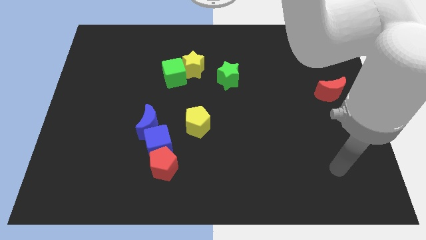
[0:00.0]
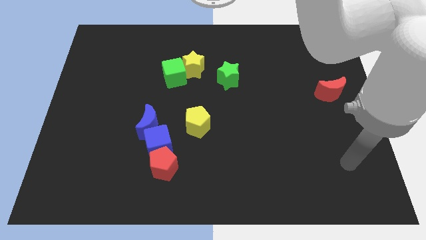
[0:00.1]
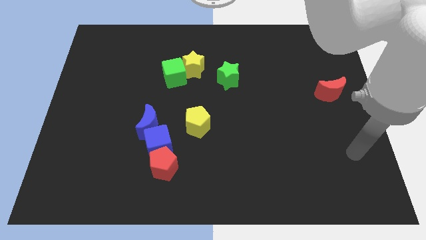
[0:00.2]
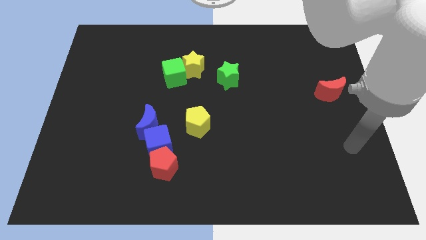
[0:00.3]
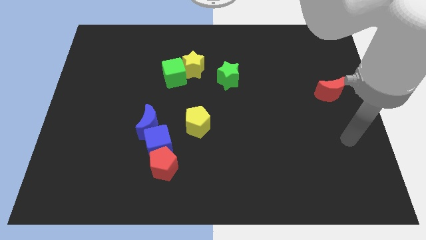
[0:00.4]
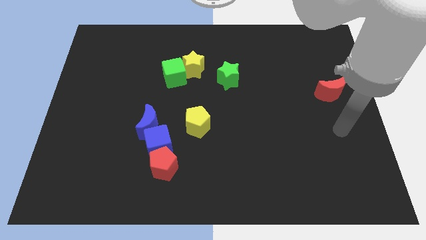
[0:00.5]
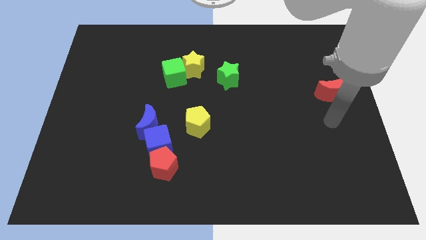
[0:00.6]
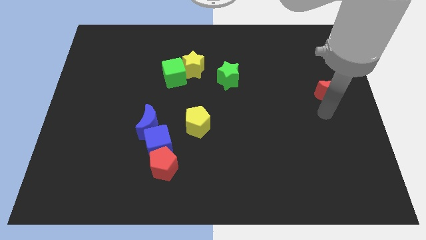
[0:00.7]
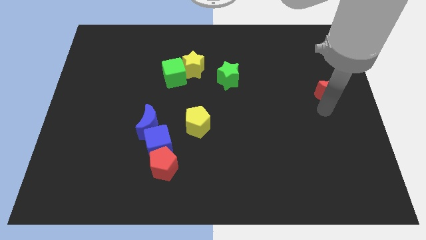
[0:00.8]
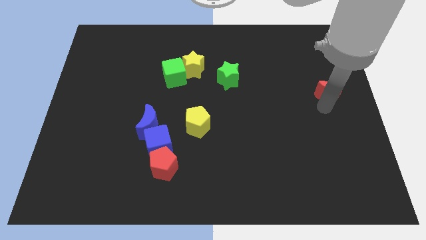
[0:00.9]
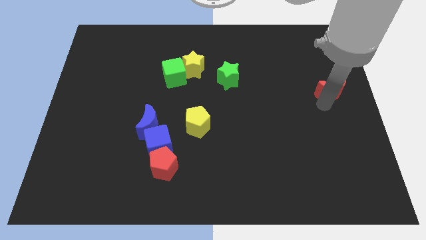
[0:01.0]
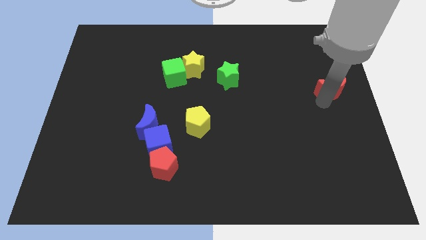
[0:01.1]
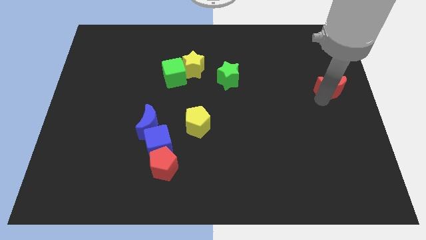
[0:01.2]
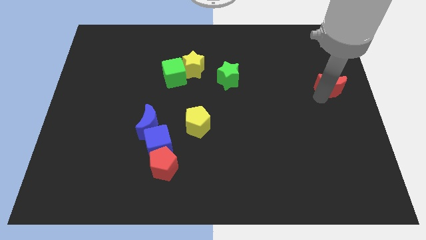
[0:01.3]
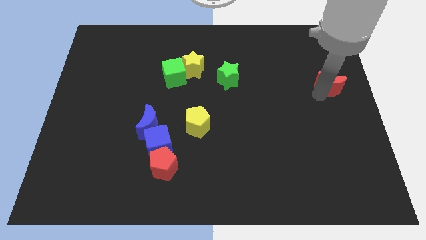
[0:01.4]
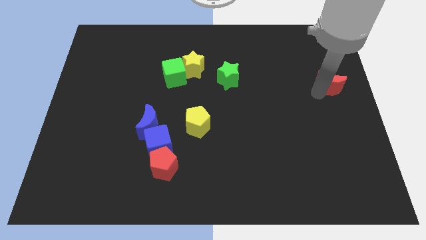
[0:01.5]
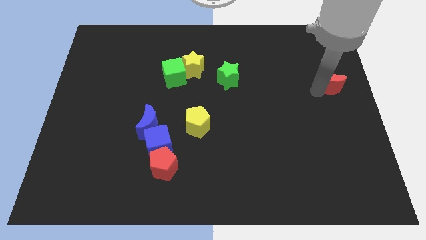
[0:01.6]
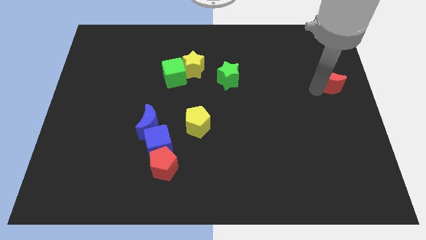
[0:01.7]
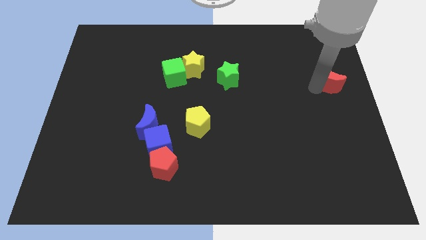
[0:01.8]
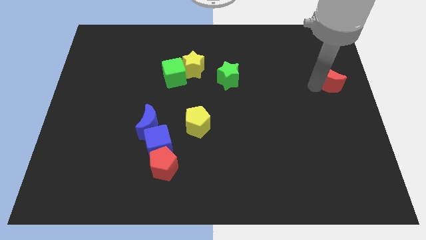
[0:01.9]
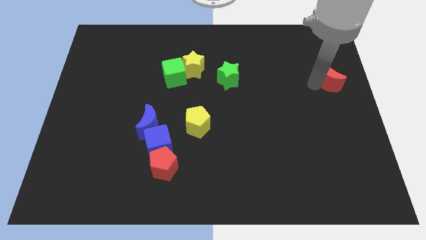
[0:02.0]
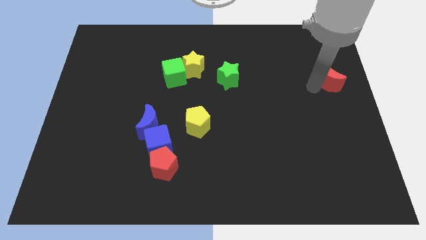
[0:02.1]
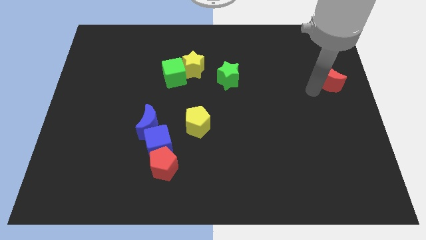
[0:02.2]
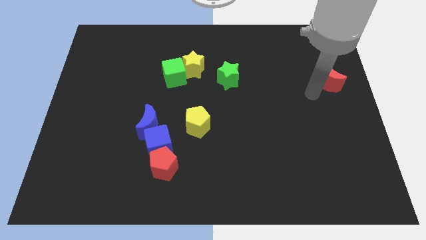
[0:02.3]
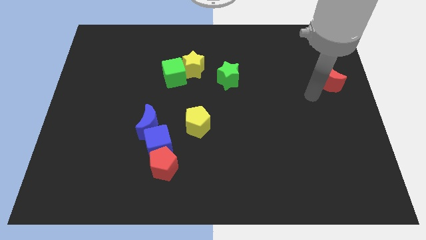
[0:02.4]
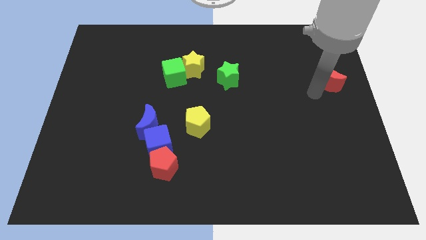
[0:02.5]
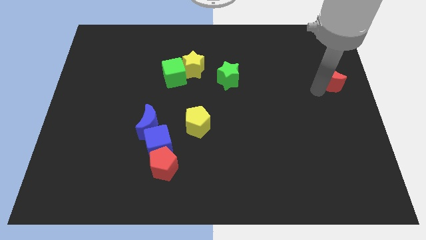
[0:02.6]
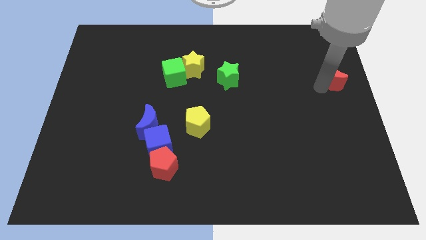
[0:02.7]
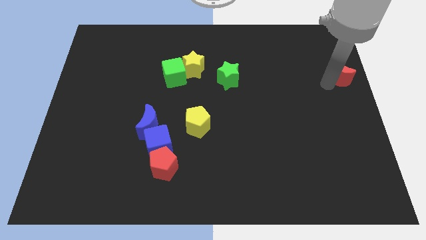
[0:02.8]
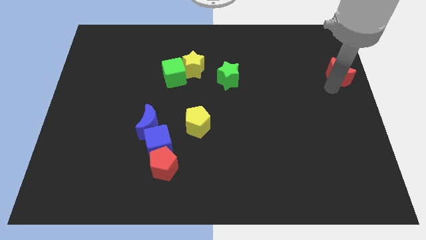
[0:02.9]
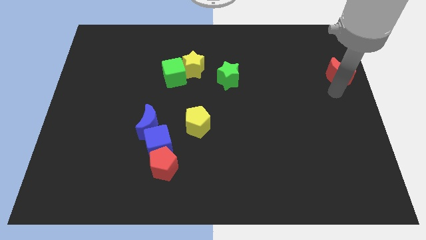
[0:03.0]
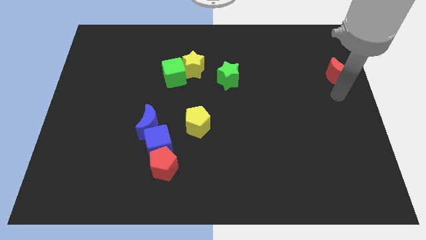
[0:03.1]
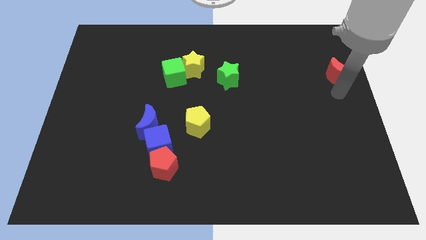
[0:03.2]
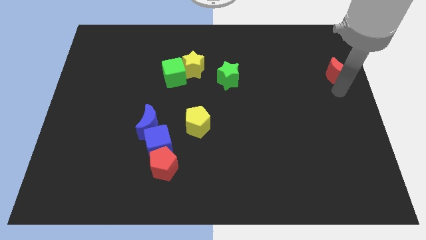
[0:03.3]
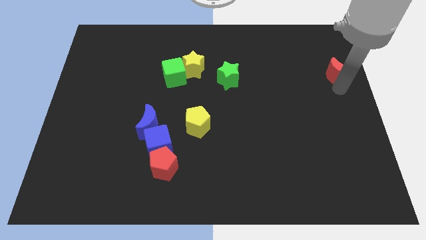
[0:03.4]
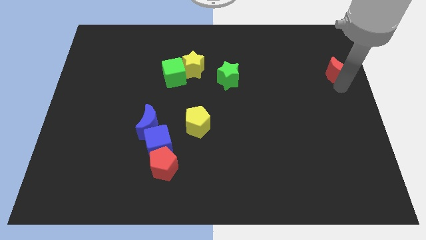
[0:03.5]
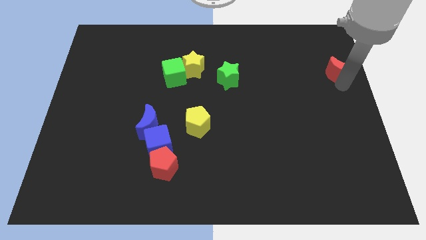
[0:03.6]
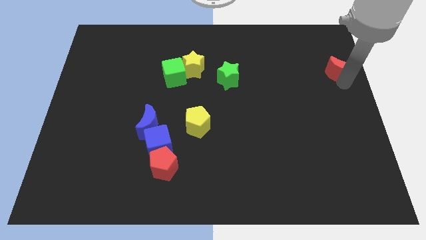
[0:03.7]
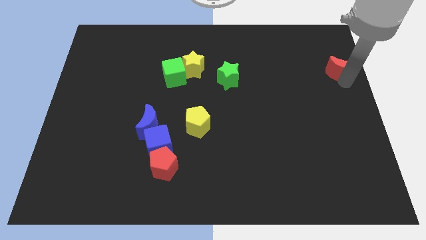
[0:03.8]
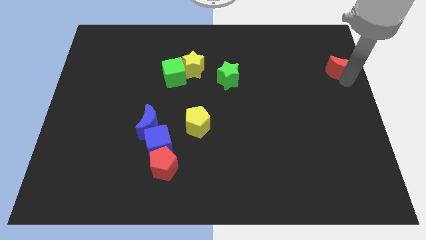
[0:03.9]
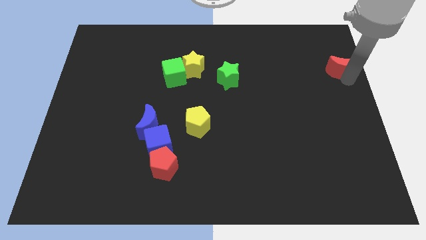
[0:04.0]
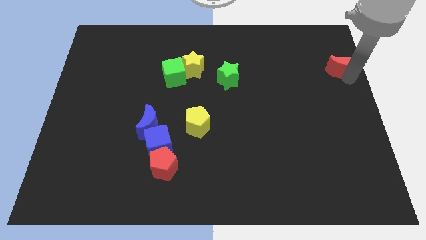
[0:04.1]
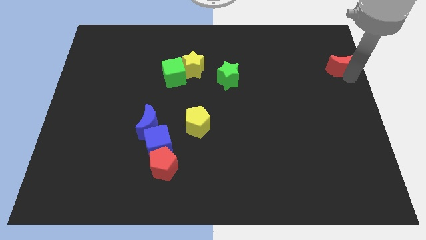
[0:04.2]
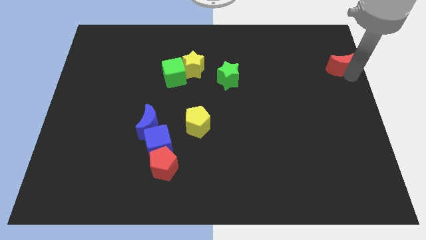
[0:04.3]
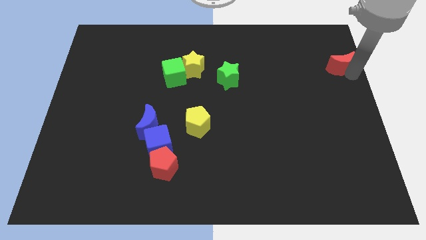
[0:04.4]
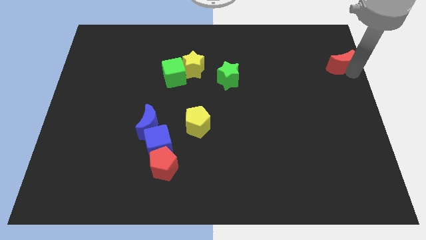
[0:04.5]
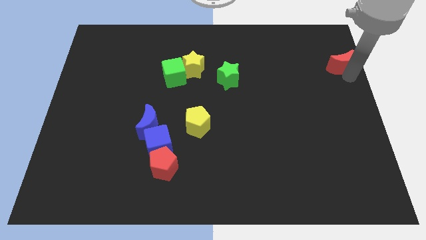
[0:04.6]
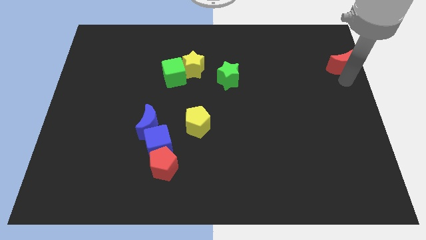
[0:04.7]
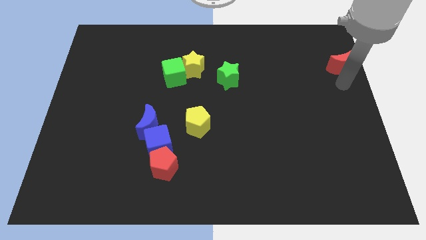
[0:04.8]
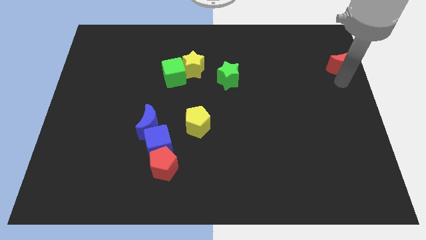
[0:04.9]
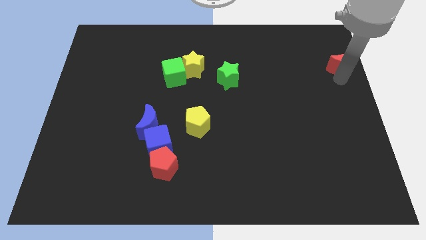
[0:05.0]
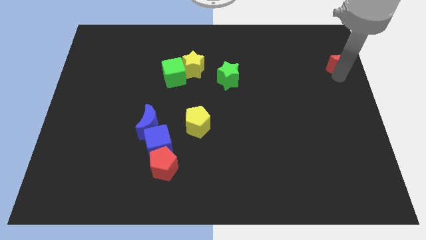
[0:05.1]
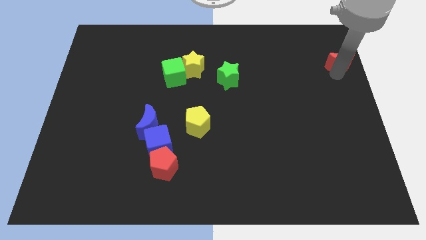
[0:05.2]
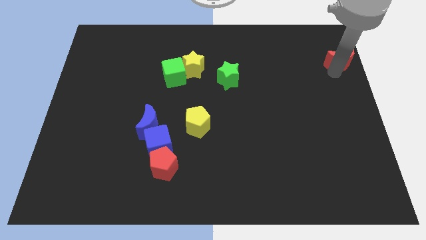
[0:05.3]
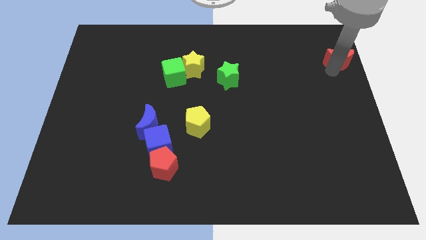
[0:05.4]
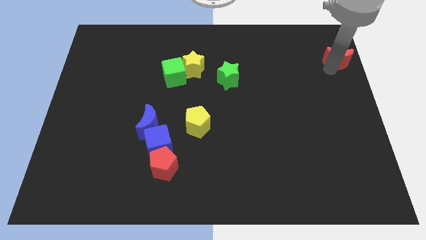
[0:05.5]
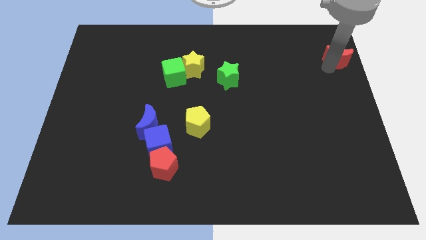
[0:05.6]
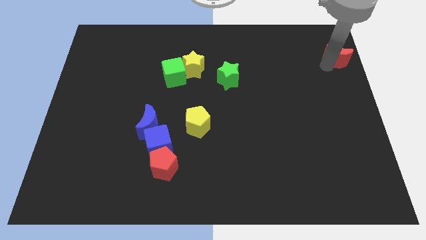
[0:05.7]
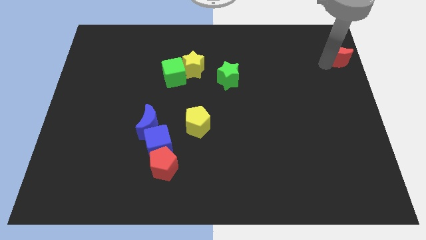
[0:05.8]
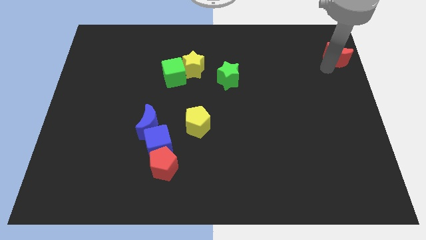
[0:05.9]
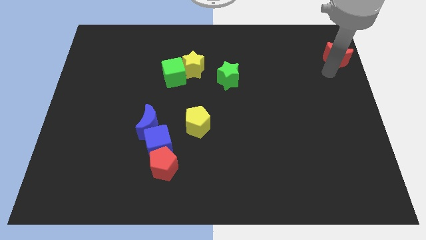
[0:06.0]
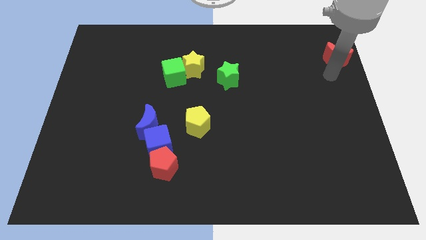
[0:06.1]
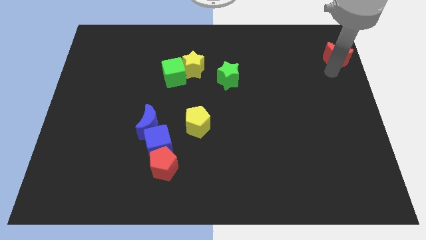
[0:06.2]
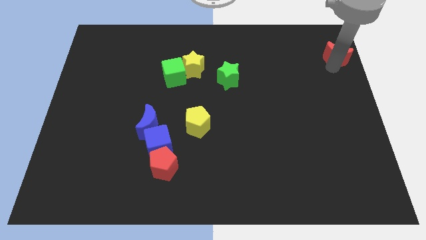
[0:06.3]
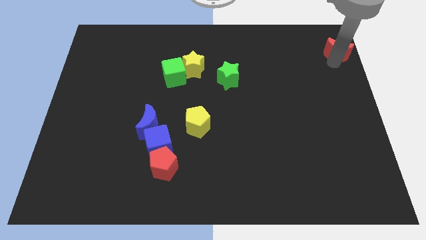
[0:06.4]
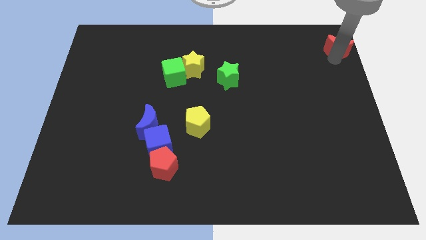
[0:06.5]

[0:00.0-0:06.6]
push the red moon to the upper right corner
